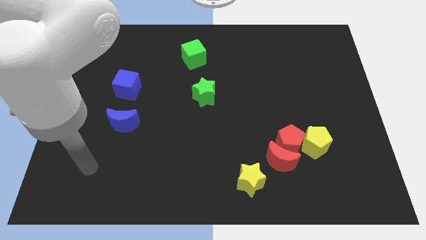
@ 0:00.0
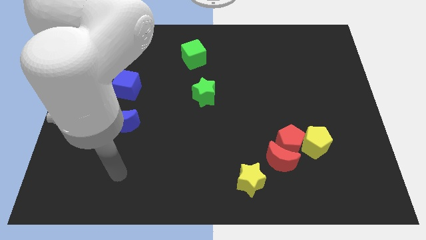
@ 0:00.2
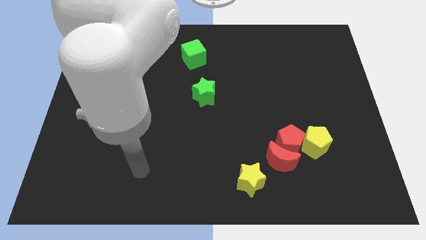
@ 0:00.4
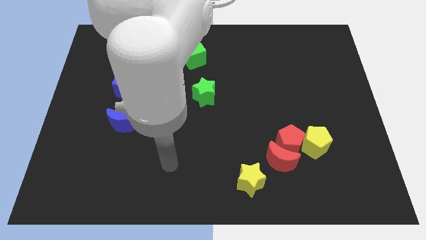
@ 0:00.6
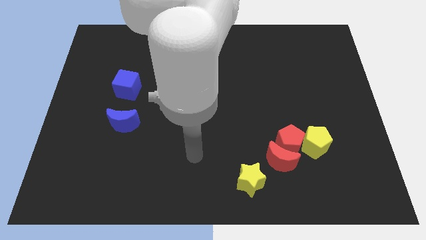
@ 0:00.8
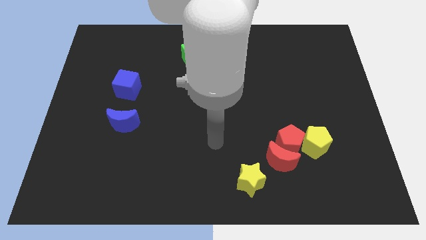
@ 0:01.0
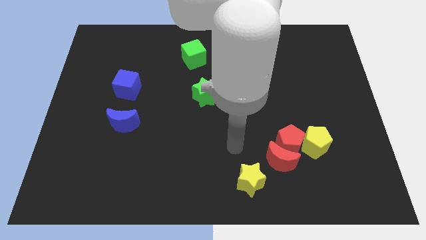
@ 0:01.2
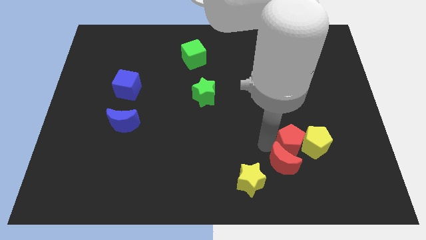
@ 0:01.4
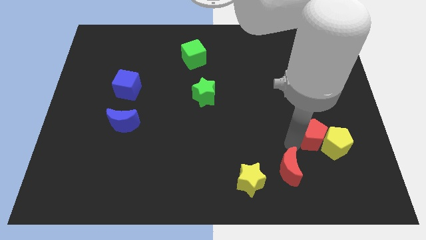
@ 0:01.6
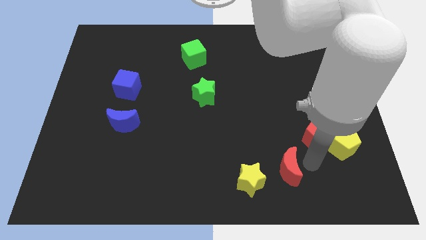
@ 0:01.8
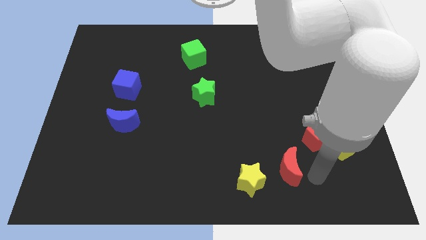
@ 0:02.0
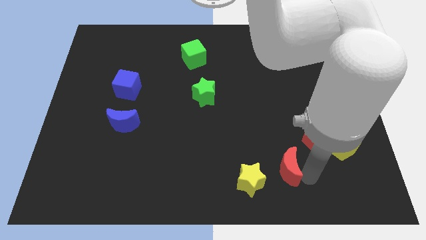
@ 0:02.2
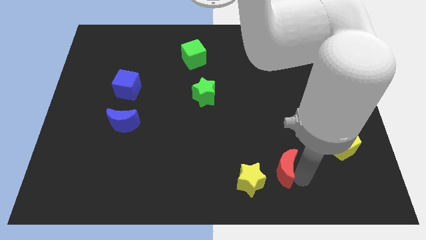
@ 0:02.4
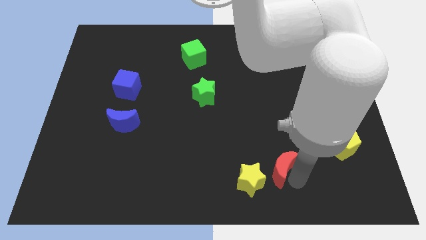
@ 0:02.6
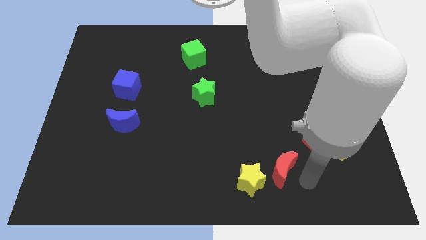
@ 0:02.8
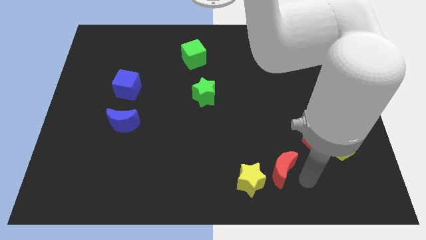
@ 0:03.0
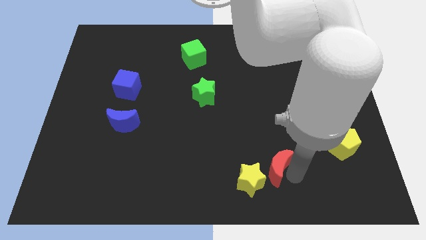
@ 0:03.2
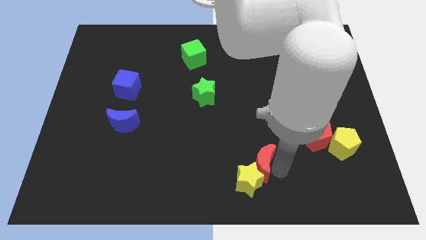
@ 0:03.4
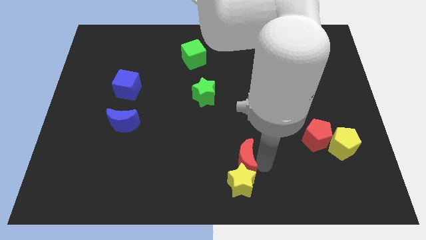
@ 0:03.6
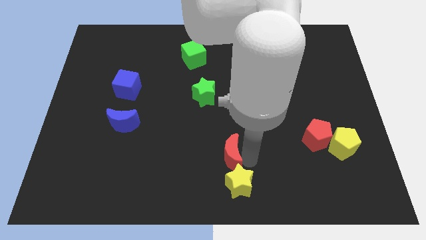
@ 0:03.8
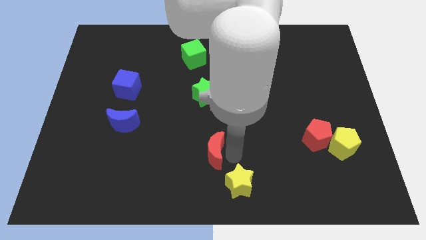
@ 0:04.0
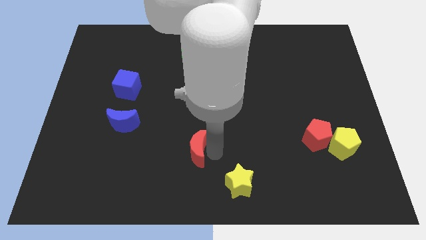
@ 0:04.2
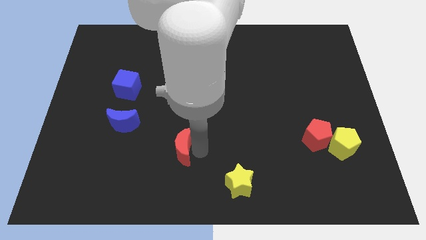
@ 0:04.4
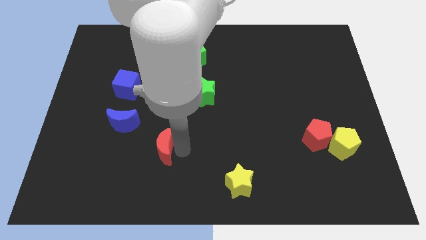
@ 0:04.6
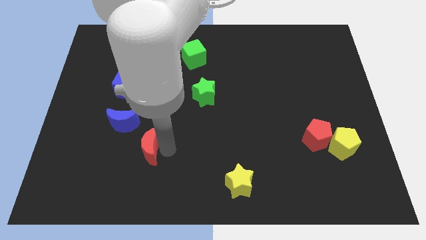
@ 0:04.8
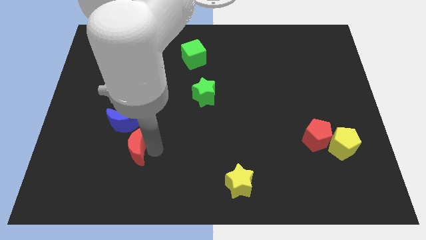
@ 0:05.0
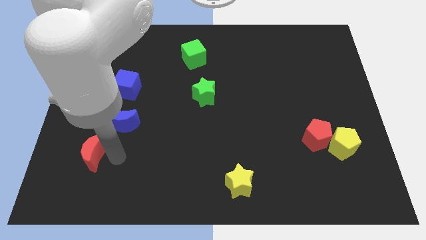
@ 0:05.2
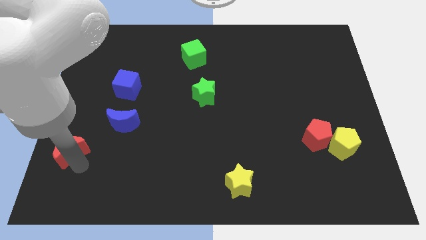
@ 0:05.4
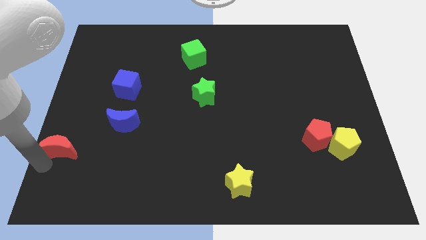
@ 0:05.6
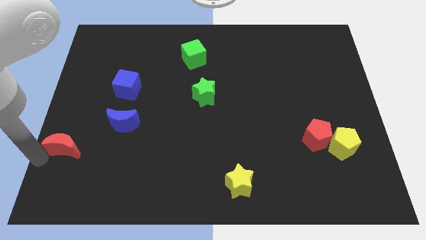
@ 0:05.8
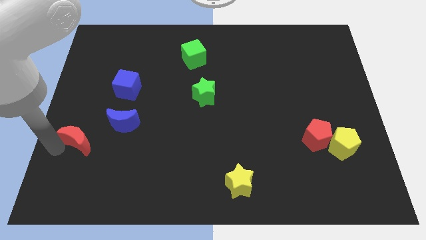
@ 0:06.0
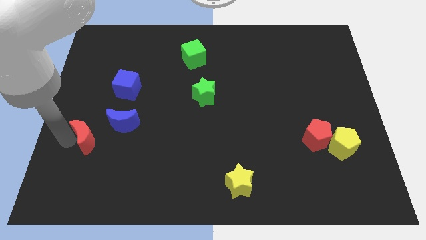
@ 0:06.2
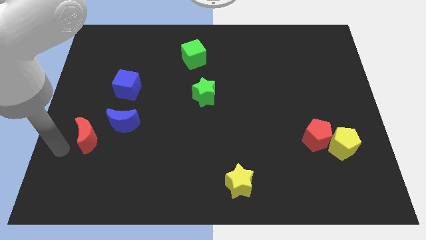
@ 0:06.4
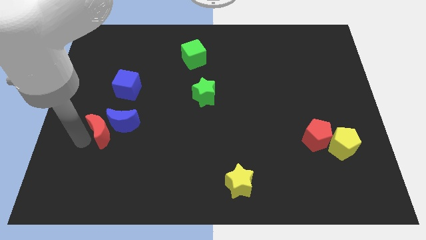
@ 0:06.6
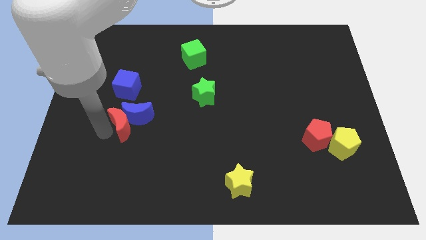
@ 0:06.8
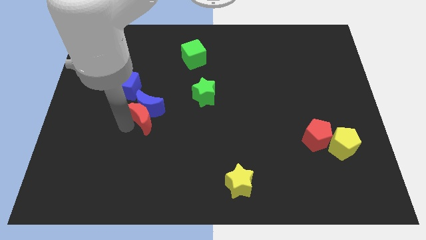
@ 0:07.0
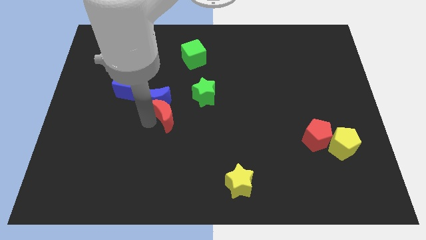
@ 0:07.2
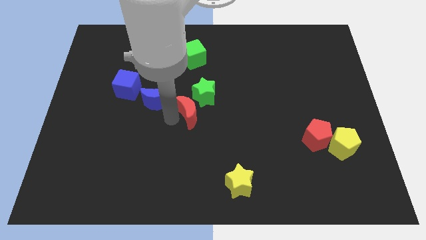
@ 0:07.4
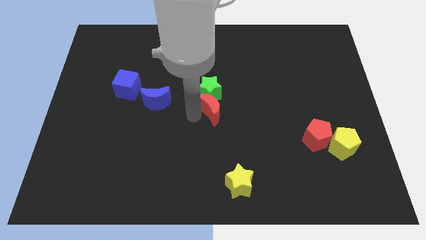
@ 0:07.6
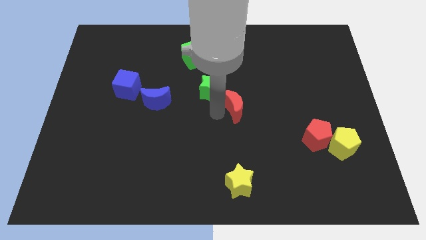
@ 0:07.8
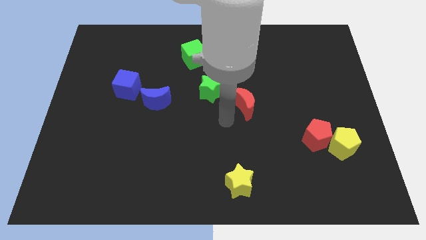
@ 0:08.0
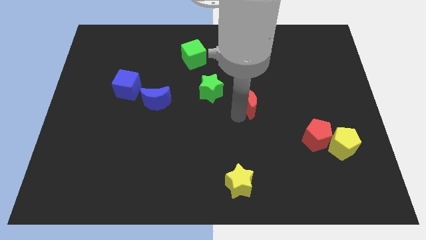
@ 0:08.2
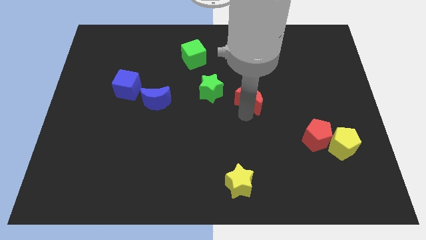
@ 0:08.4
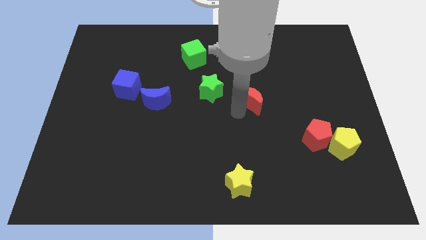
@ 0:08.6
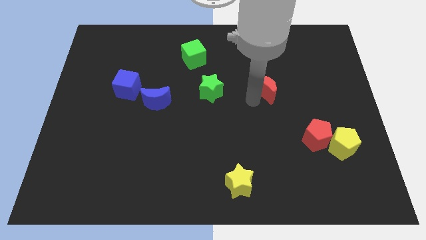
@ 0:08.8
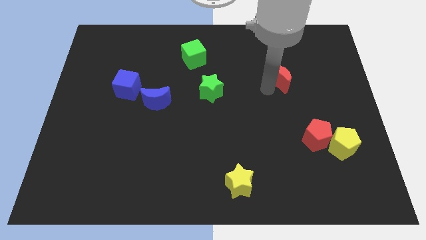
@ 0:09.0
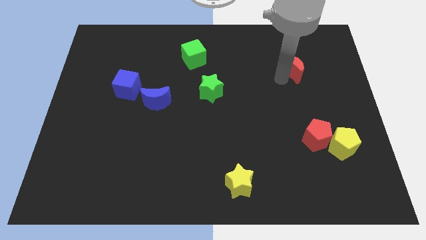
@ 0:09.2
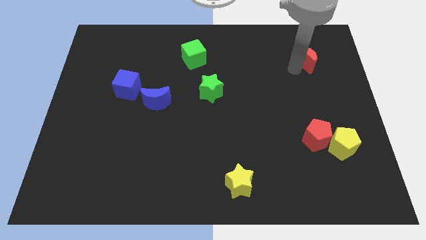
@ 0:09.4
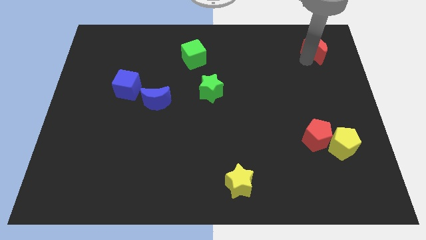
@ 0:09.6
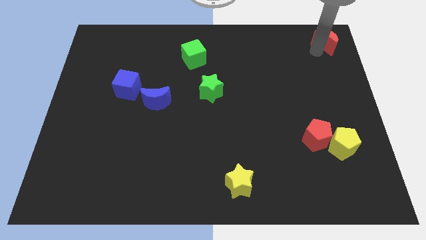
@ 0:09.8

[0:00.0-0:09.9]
push the red moon to the top right of the board

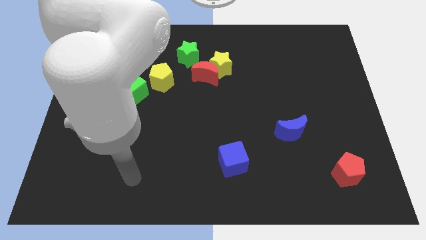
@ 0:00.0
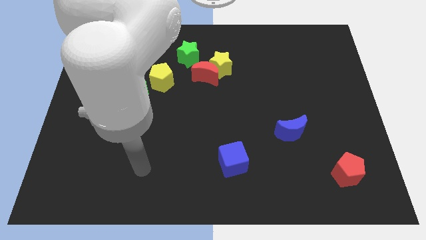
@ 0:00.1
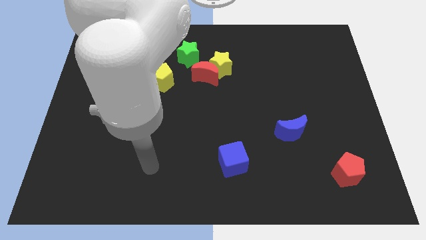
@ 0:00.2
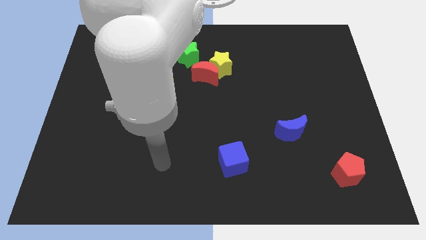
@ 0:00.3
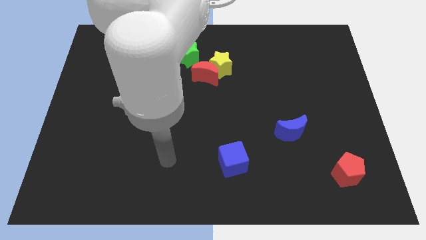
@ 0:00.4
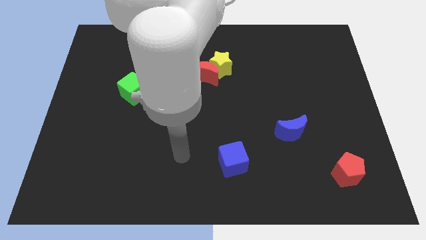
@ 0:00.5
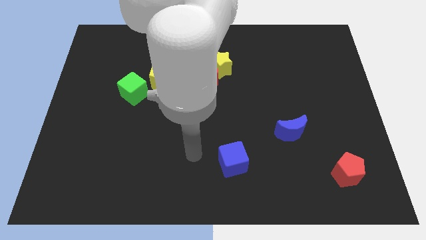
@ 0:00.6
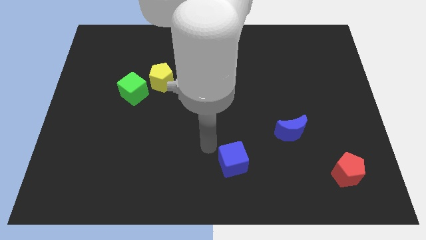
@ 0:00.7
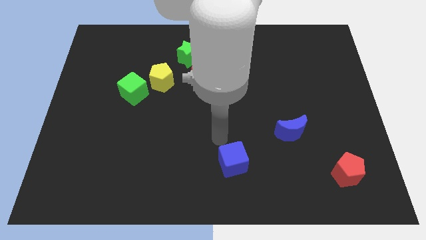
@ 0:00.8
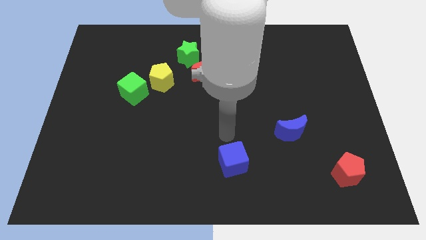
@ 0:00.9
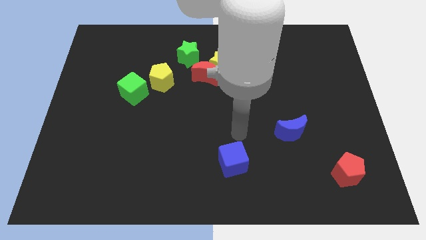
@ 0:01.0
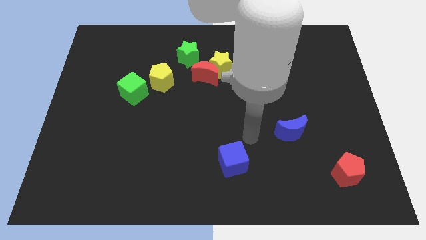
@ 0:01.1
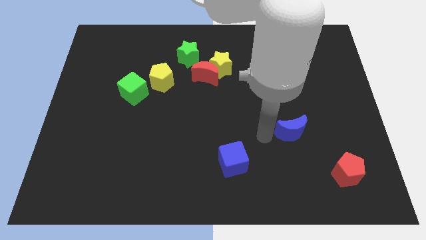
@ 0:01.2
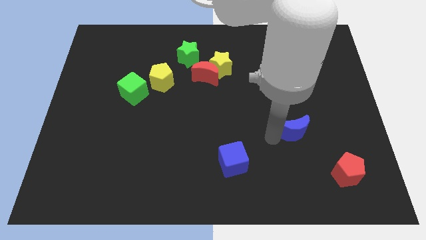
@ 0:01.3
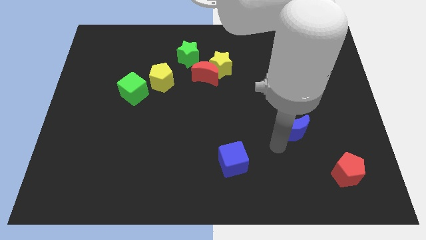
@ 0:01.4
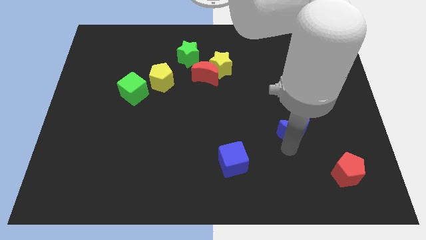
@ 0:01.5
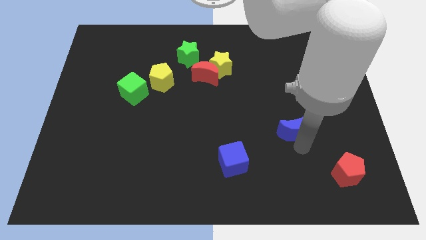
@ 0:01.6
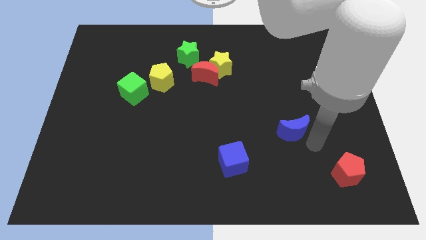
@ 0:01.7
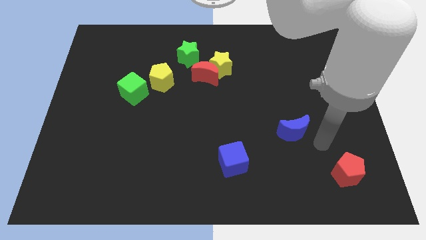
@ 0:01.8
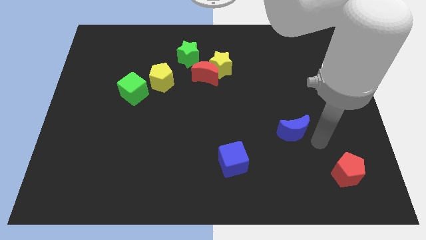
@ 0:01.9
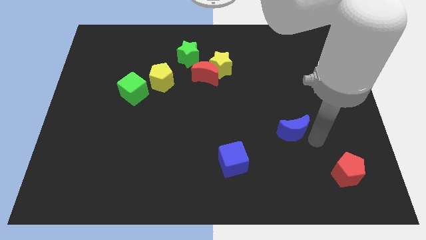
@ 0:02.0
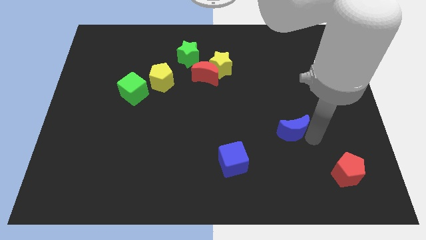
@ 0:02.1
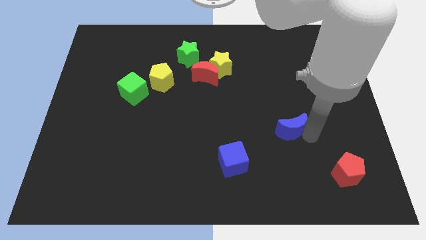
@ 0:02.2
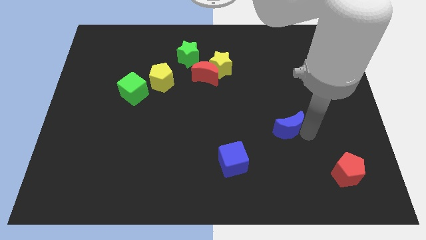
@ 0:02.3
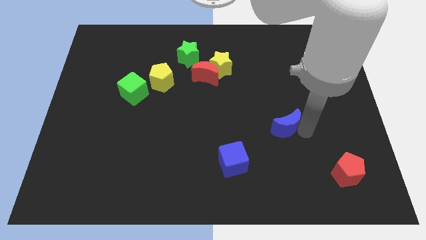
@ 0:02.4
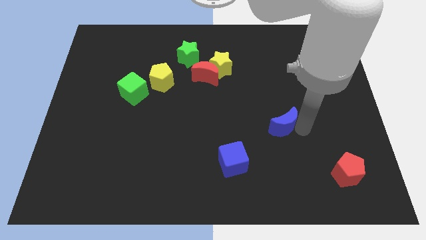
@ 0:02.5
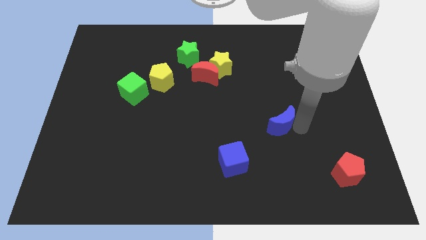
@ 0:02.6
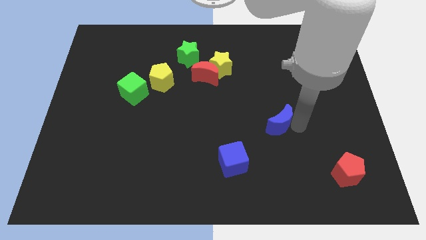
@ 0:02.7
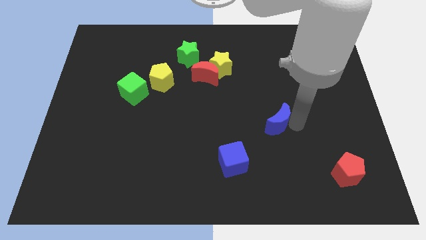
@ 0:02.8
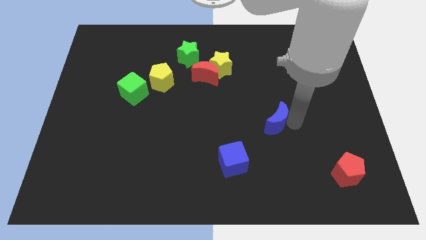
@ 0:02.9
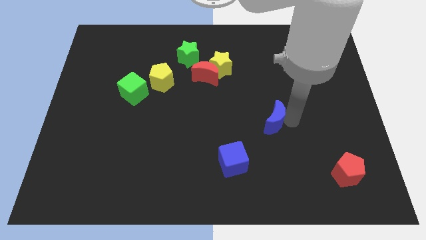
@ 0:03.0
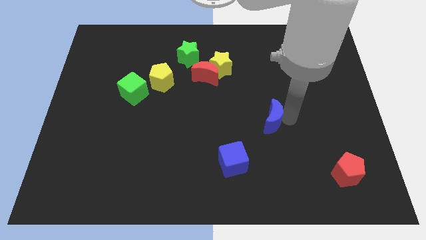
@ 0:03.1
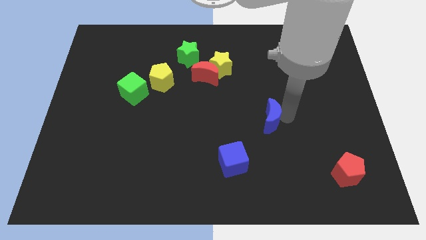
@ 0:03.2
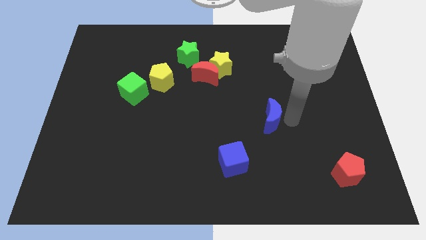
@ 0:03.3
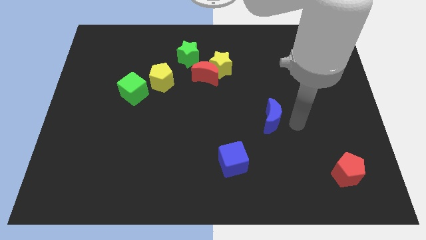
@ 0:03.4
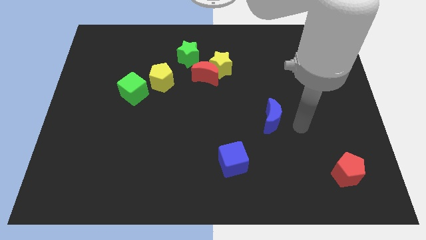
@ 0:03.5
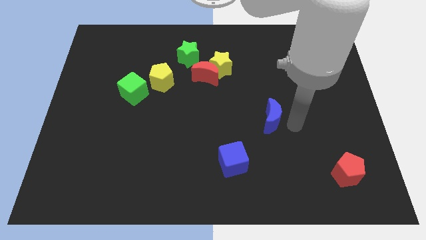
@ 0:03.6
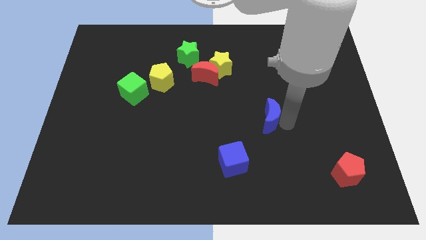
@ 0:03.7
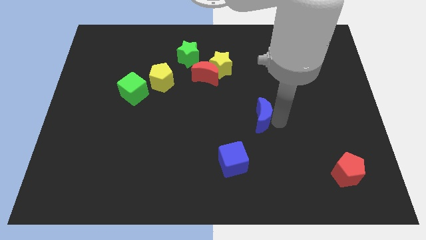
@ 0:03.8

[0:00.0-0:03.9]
push the blue moon to the middle
